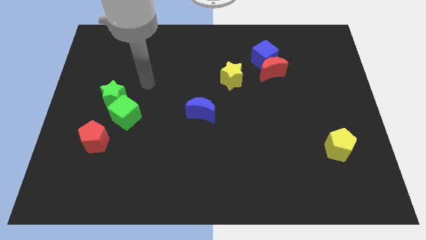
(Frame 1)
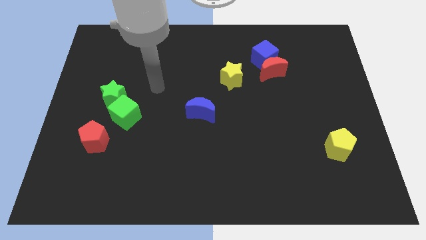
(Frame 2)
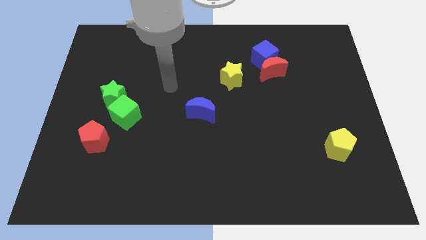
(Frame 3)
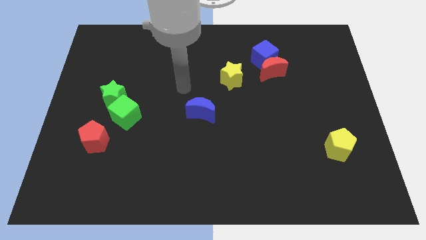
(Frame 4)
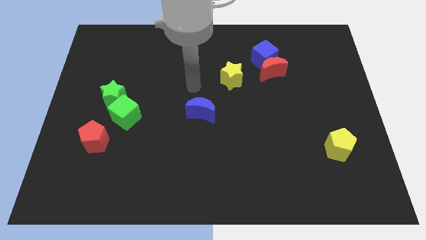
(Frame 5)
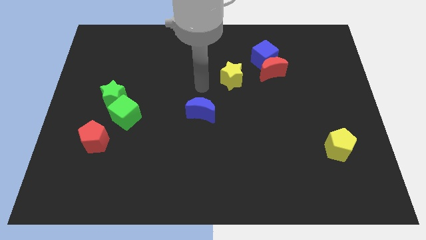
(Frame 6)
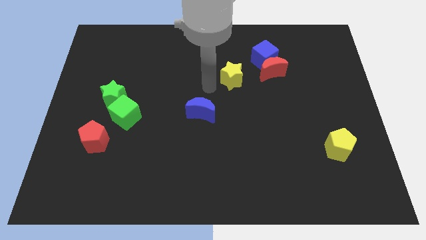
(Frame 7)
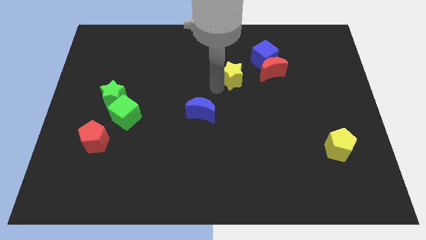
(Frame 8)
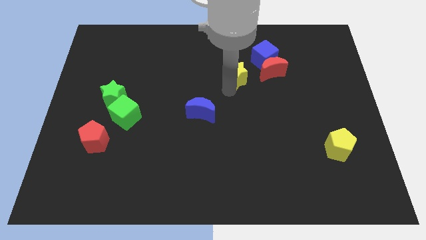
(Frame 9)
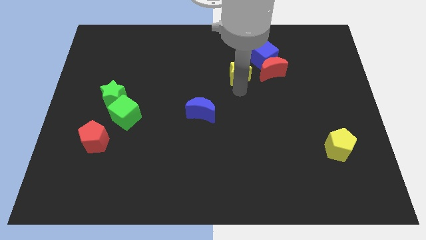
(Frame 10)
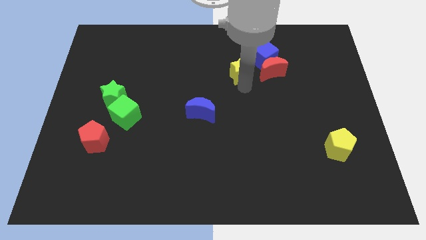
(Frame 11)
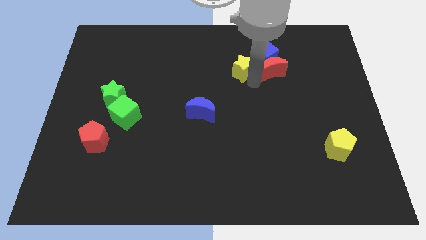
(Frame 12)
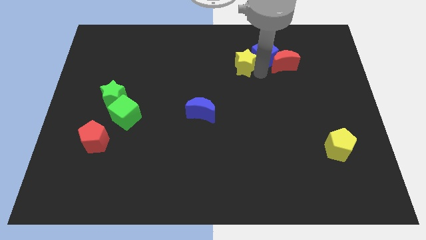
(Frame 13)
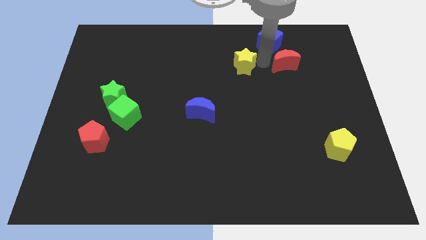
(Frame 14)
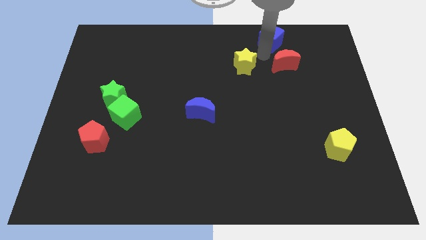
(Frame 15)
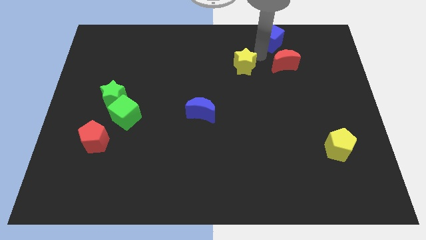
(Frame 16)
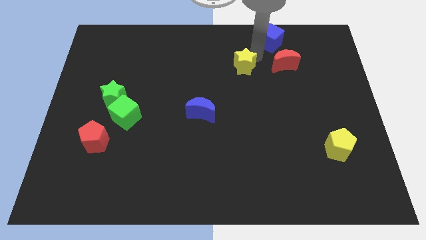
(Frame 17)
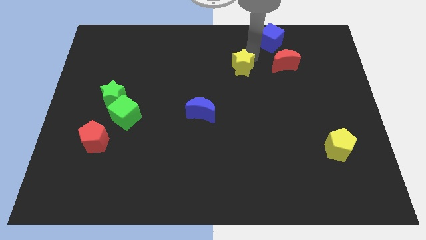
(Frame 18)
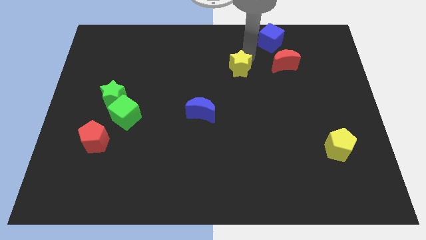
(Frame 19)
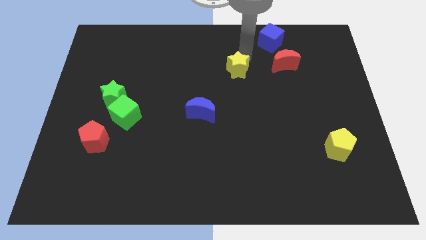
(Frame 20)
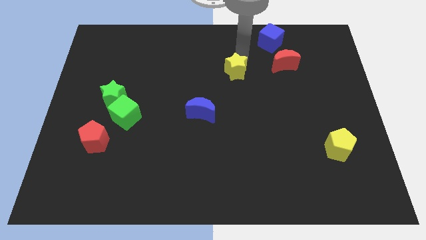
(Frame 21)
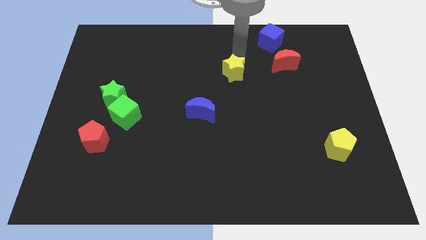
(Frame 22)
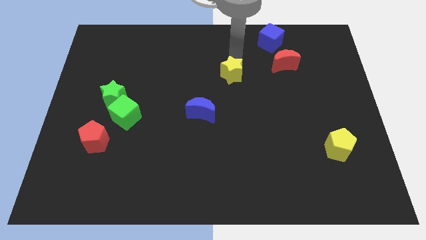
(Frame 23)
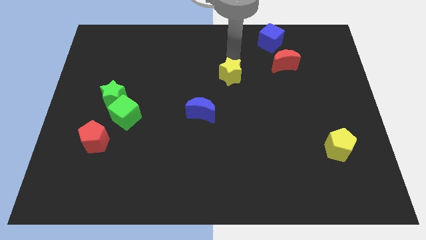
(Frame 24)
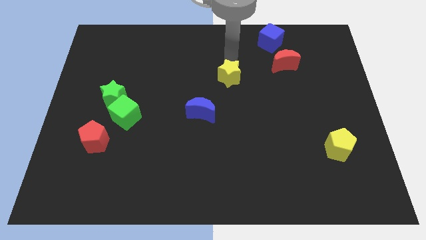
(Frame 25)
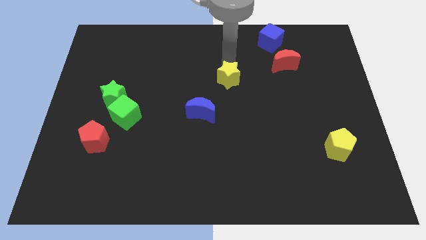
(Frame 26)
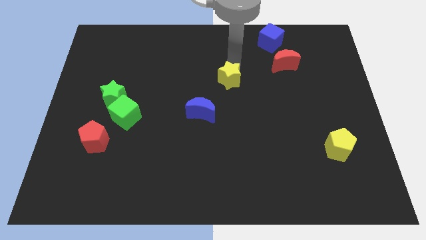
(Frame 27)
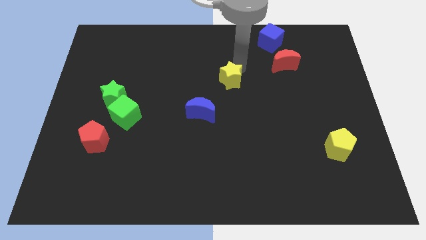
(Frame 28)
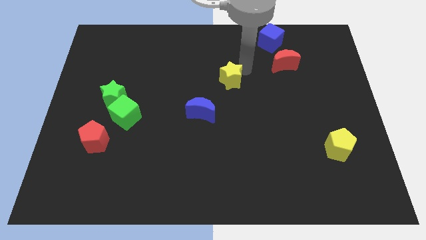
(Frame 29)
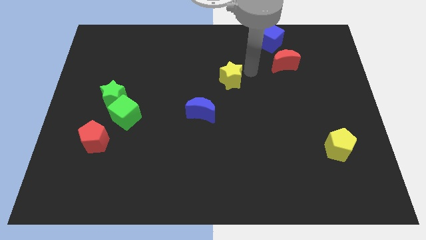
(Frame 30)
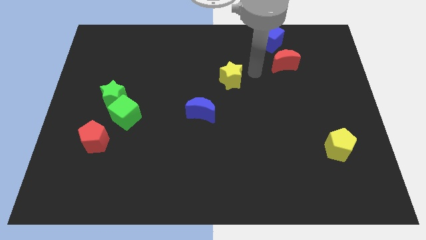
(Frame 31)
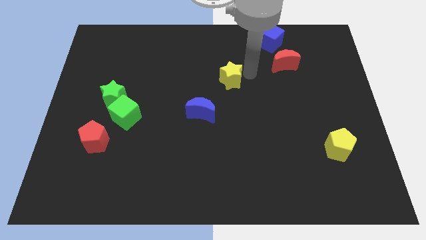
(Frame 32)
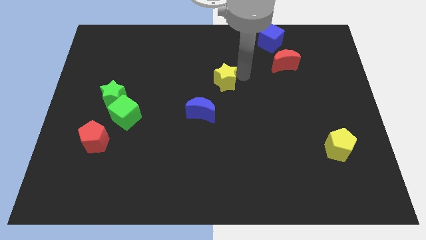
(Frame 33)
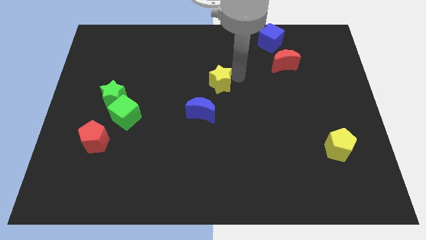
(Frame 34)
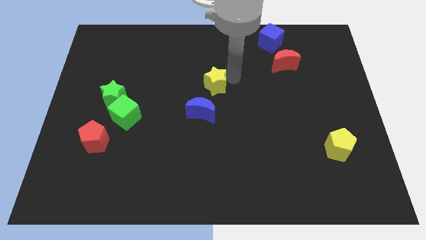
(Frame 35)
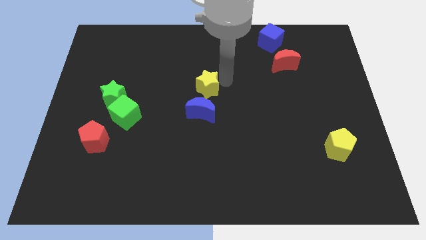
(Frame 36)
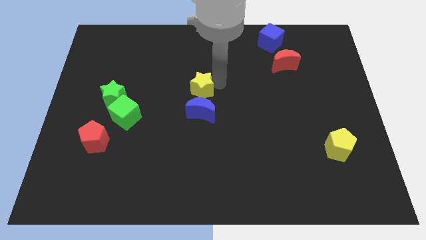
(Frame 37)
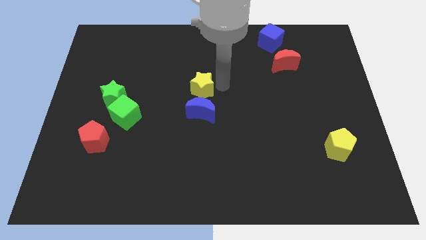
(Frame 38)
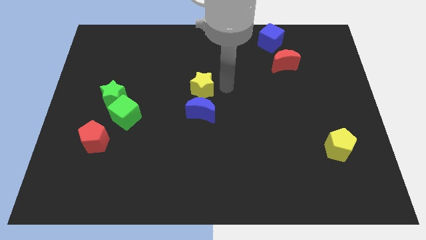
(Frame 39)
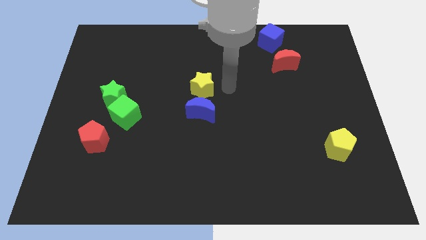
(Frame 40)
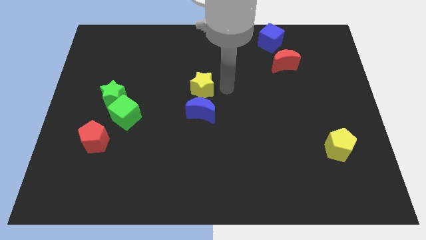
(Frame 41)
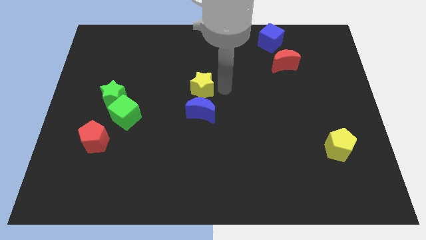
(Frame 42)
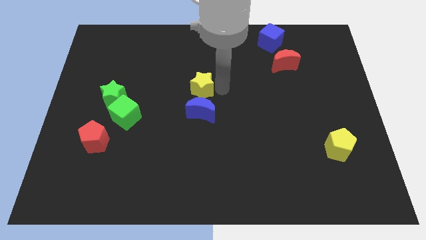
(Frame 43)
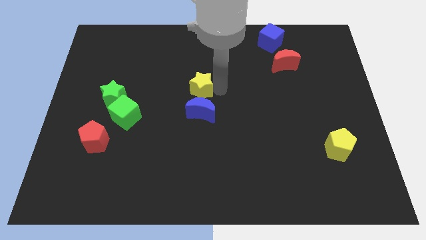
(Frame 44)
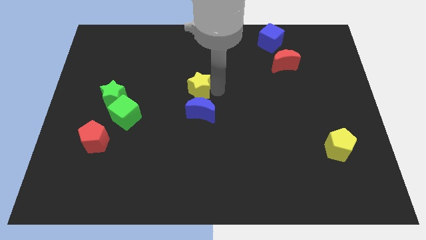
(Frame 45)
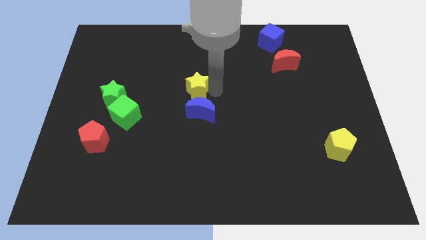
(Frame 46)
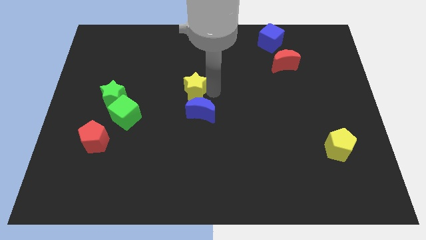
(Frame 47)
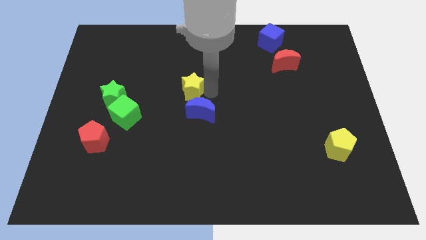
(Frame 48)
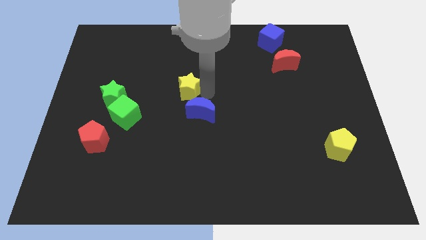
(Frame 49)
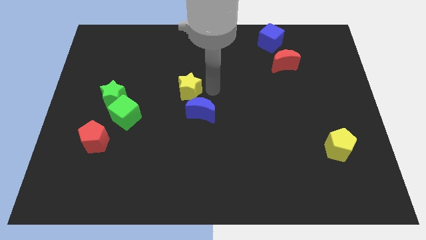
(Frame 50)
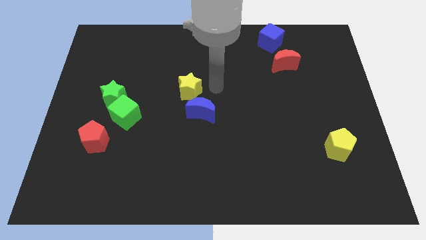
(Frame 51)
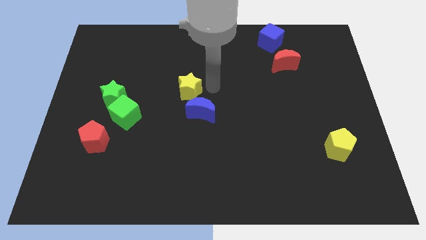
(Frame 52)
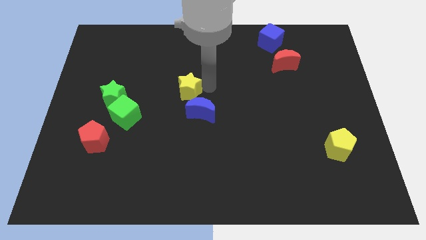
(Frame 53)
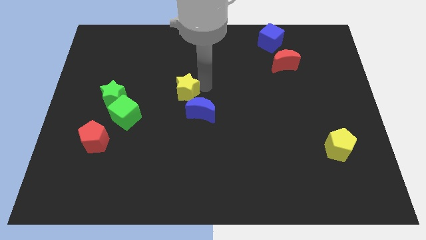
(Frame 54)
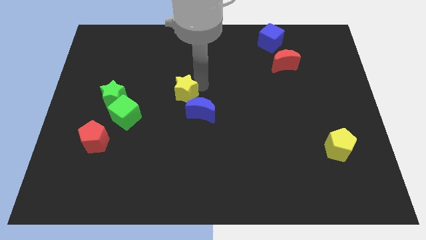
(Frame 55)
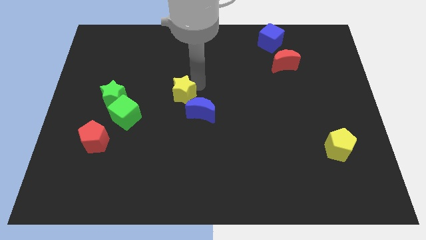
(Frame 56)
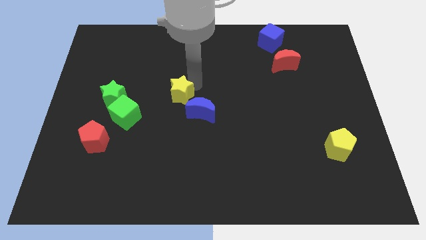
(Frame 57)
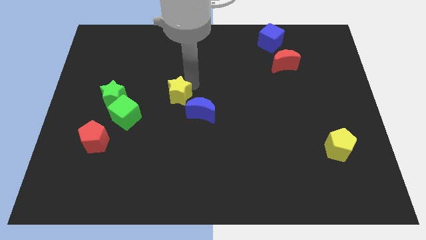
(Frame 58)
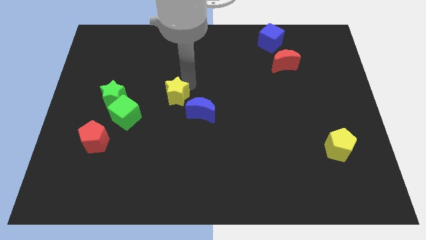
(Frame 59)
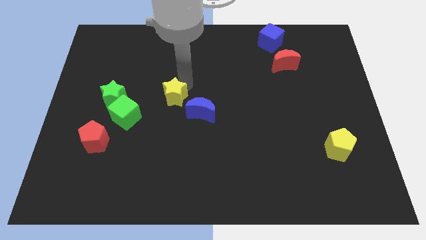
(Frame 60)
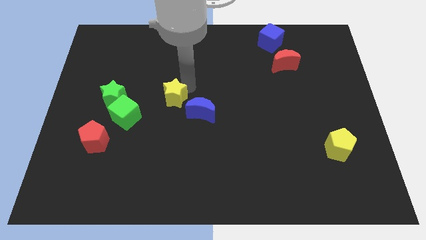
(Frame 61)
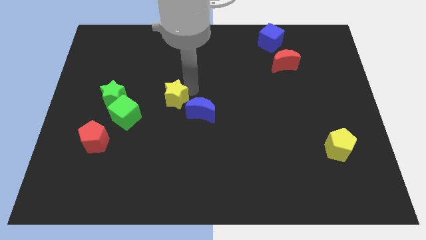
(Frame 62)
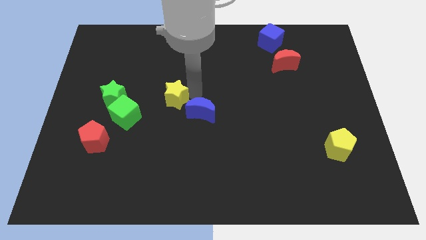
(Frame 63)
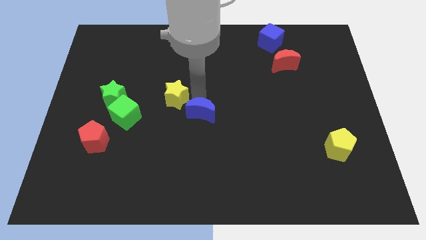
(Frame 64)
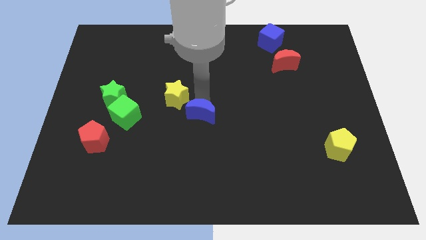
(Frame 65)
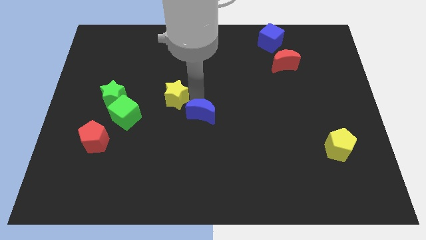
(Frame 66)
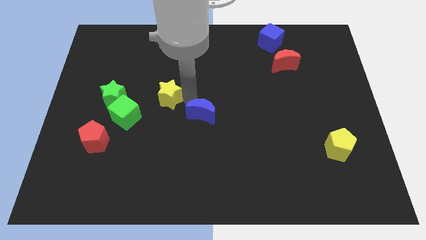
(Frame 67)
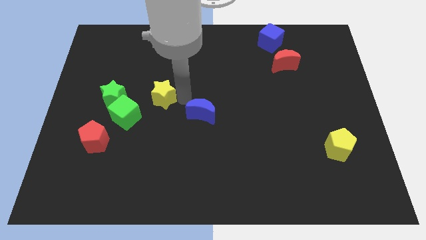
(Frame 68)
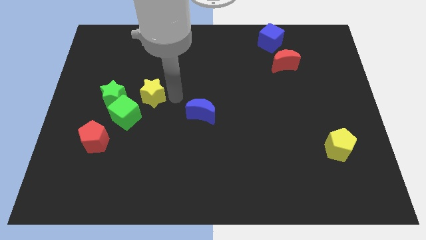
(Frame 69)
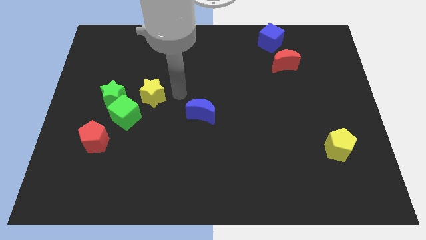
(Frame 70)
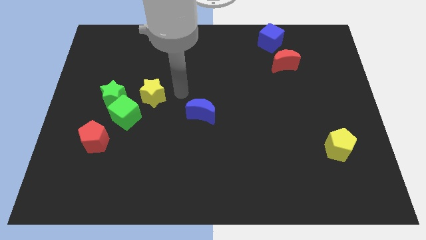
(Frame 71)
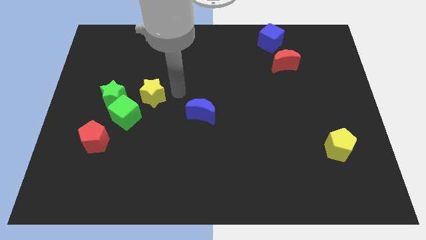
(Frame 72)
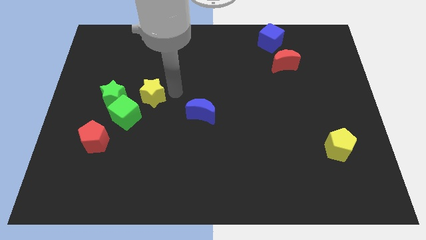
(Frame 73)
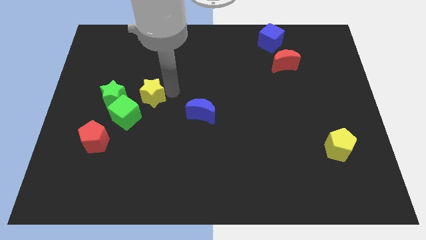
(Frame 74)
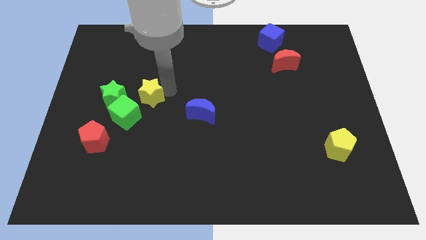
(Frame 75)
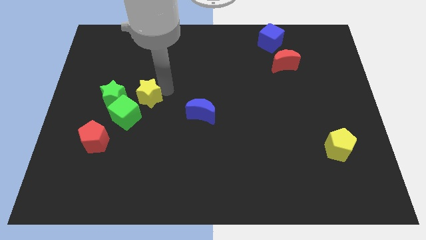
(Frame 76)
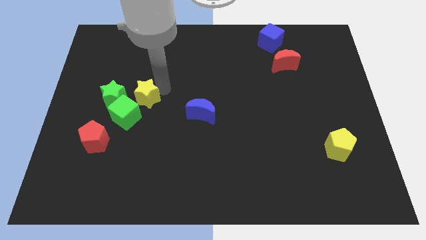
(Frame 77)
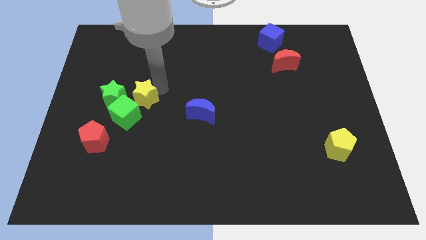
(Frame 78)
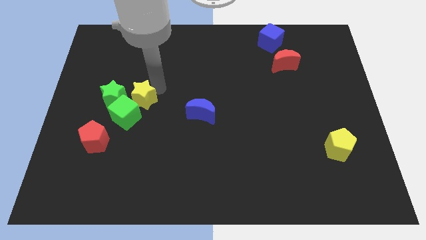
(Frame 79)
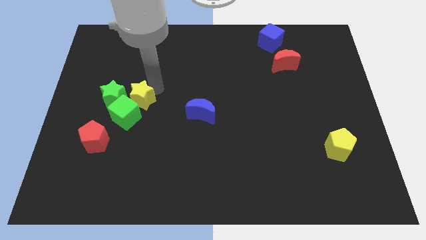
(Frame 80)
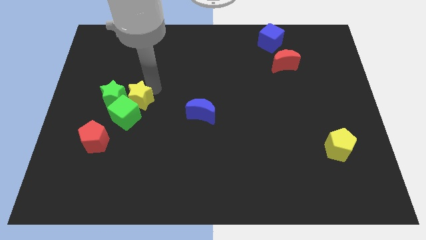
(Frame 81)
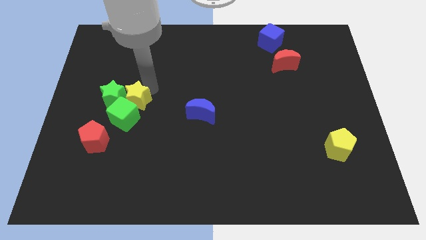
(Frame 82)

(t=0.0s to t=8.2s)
slide the yellow star towards the green star
